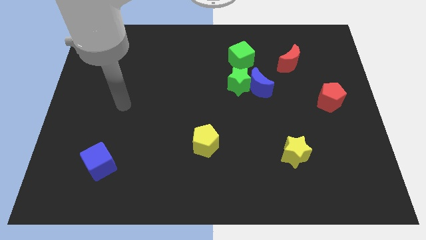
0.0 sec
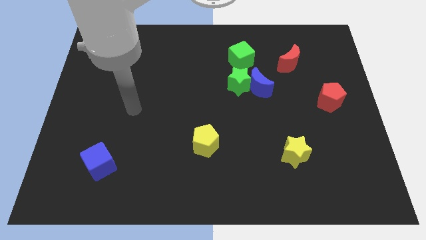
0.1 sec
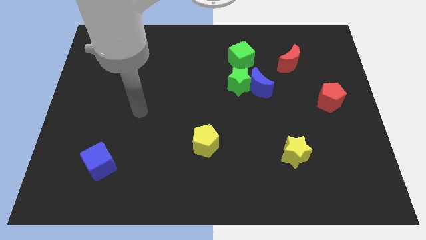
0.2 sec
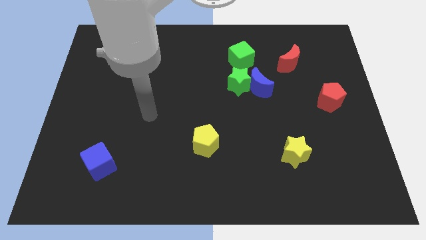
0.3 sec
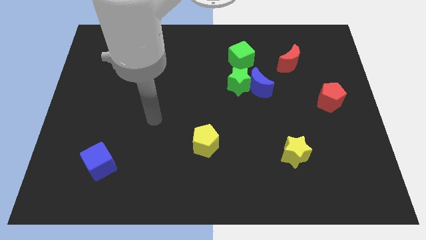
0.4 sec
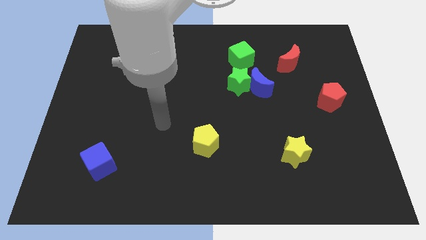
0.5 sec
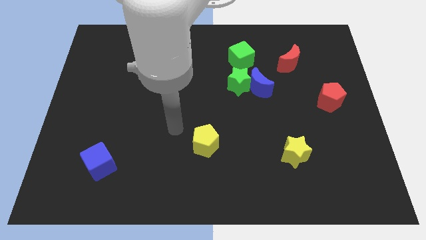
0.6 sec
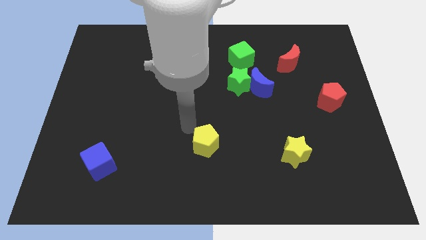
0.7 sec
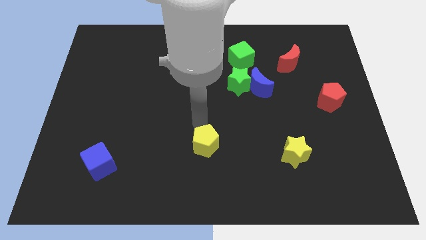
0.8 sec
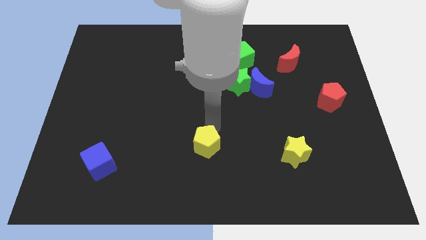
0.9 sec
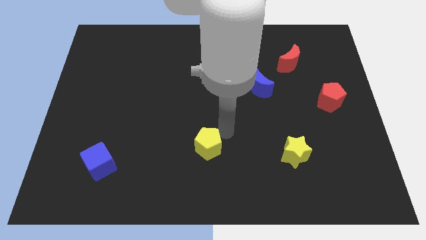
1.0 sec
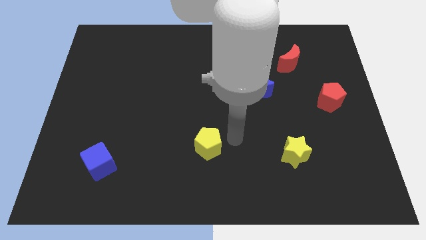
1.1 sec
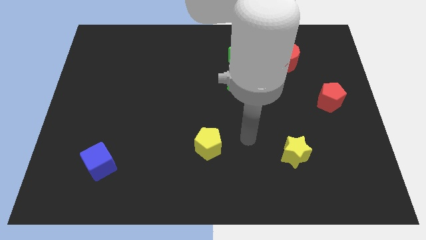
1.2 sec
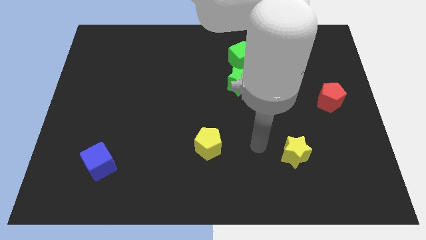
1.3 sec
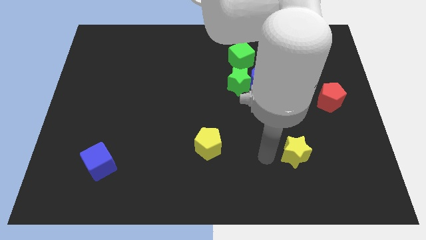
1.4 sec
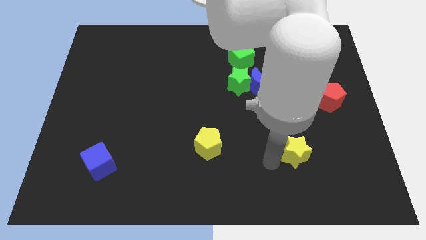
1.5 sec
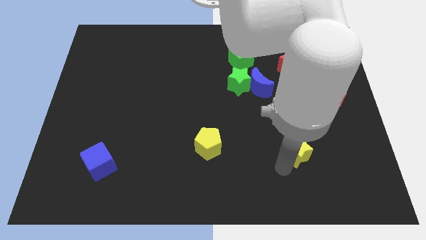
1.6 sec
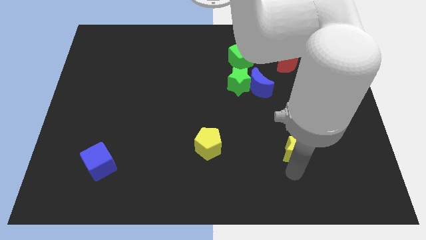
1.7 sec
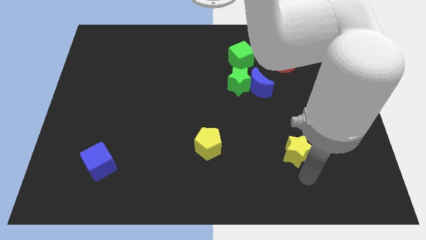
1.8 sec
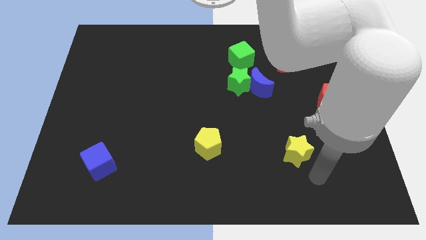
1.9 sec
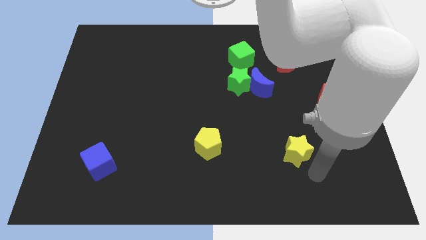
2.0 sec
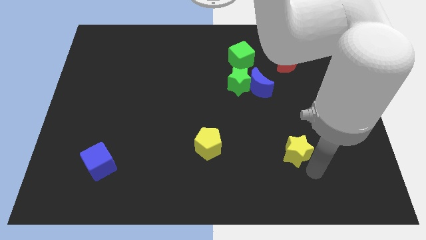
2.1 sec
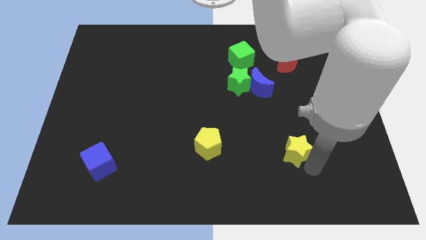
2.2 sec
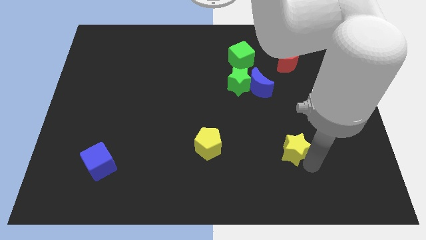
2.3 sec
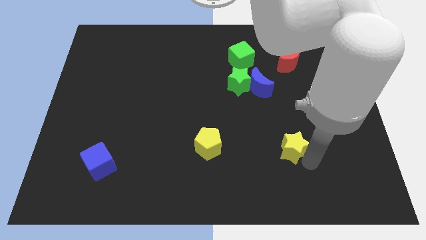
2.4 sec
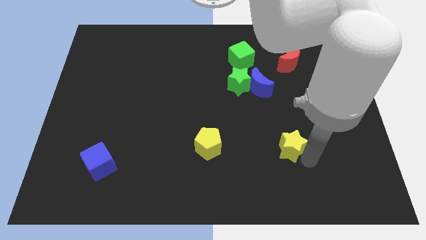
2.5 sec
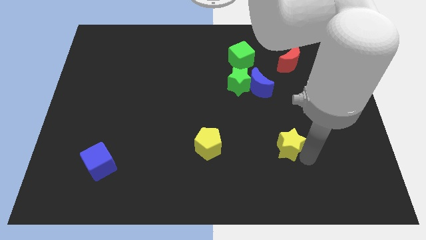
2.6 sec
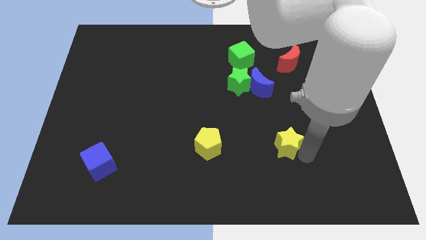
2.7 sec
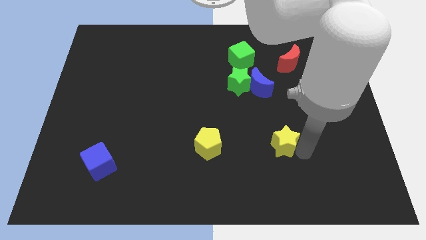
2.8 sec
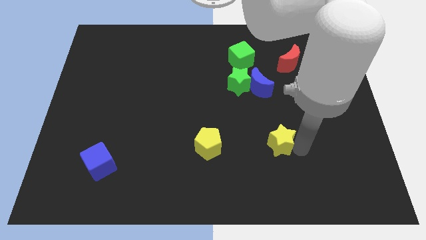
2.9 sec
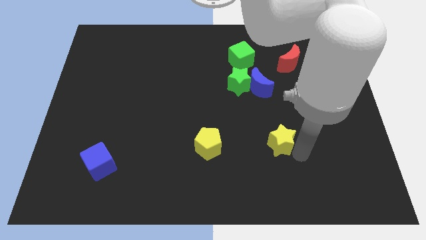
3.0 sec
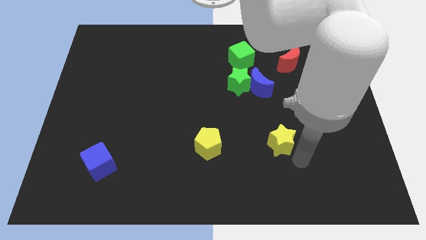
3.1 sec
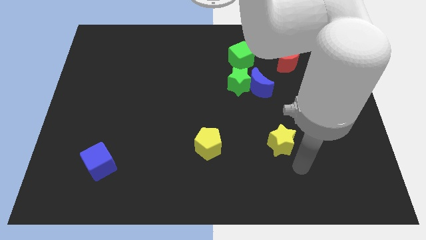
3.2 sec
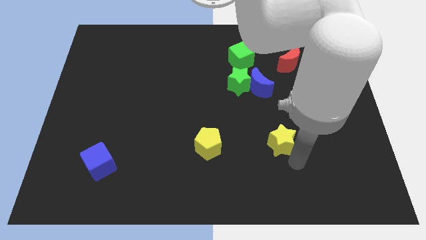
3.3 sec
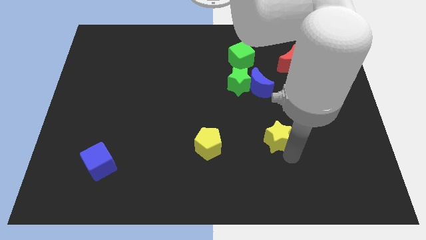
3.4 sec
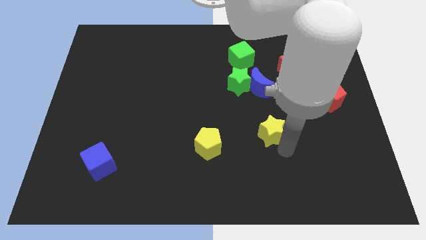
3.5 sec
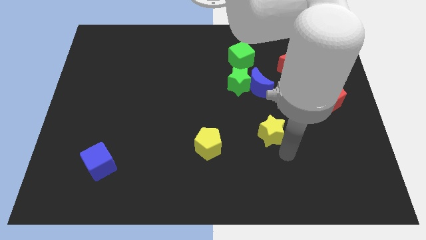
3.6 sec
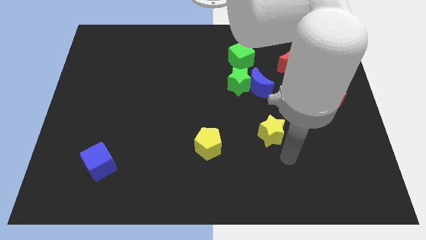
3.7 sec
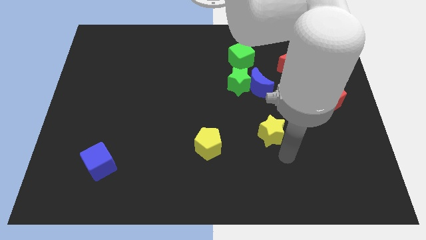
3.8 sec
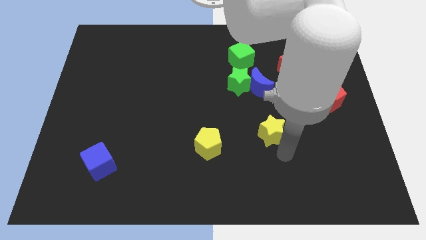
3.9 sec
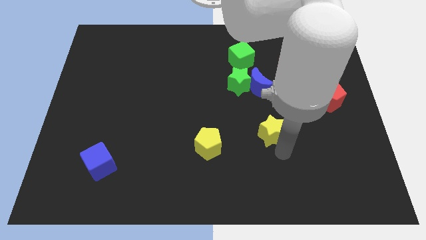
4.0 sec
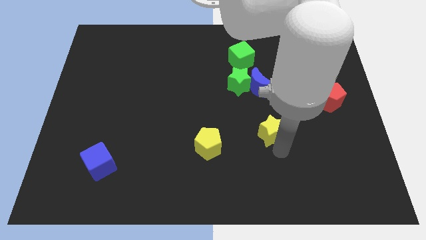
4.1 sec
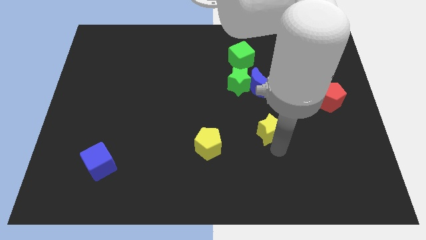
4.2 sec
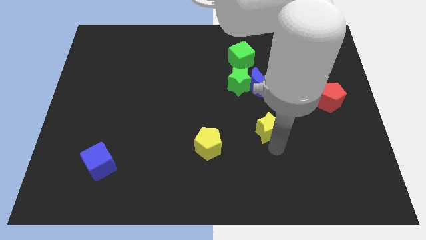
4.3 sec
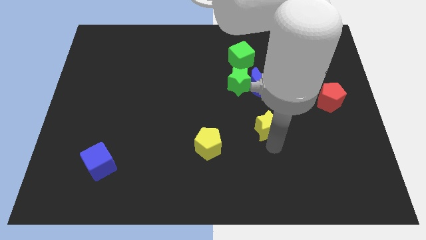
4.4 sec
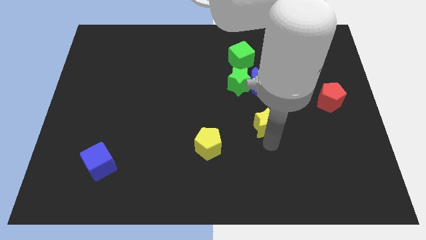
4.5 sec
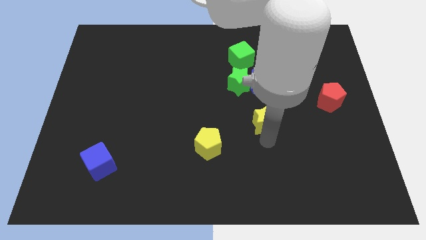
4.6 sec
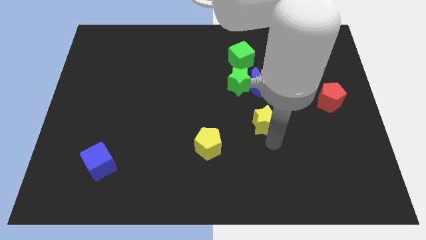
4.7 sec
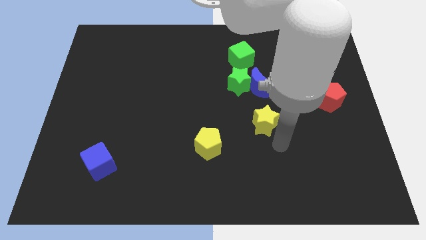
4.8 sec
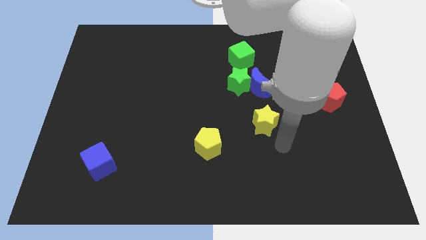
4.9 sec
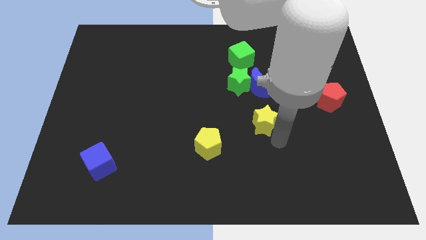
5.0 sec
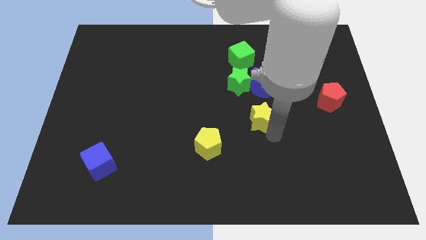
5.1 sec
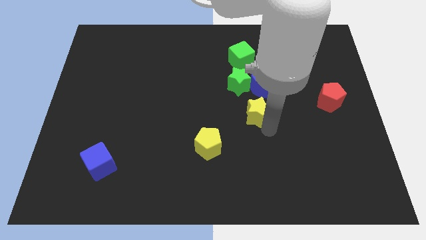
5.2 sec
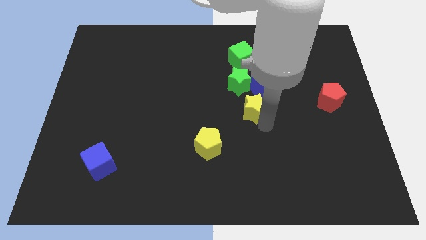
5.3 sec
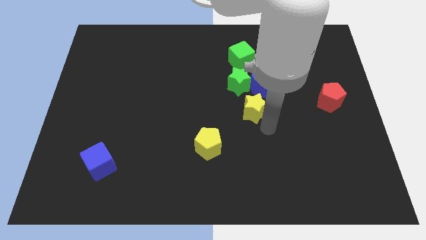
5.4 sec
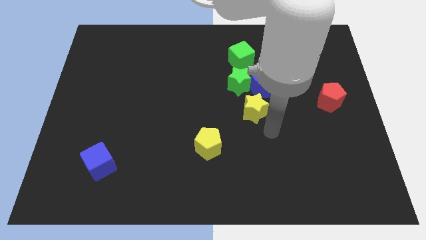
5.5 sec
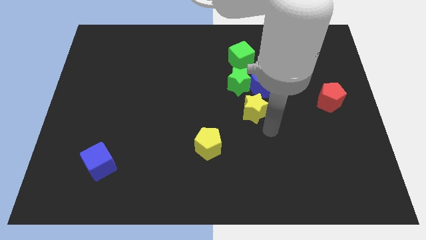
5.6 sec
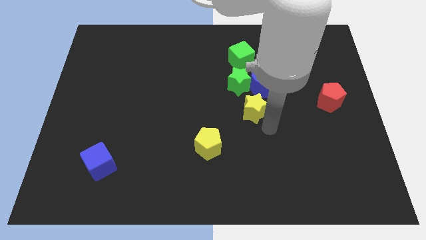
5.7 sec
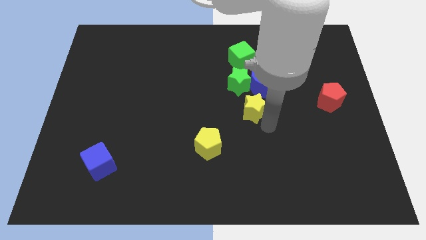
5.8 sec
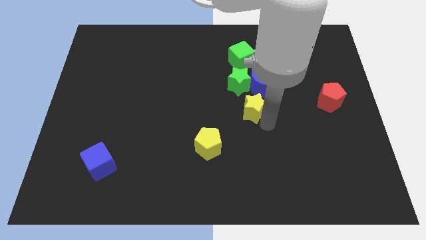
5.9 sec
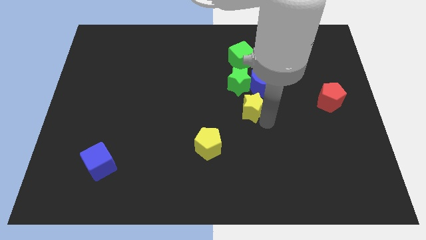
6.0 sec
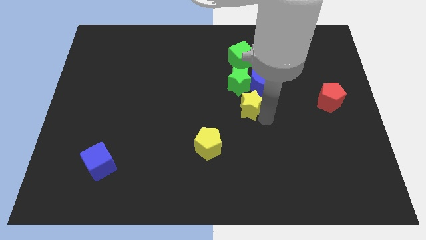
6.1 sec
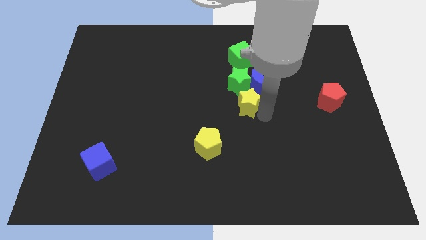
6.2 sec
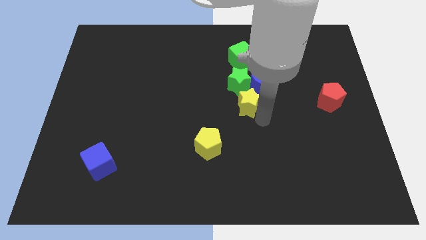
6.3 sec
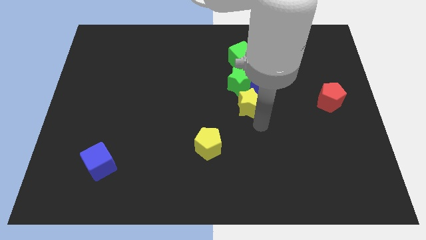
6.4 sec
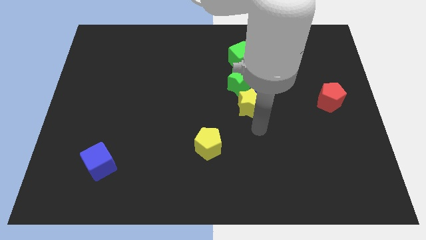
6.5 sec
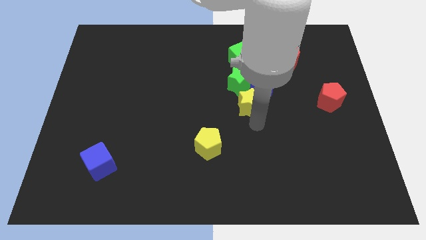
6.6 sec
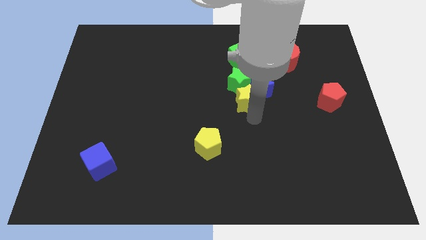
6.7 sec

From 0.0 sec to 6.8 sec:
push the yellow star next to the green star
